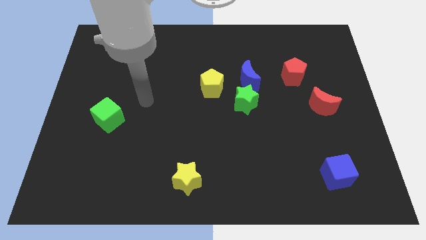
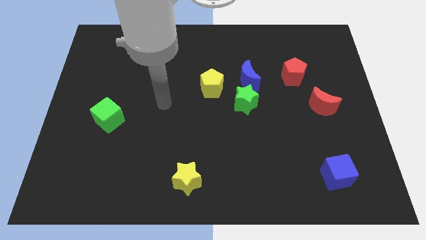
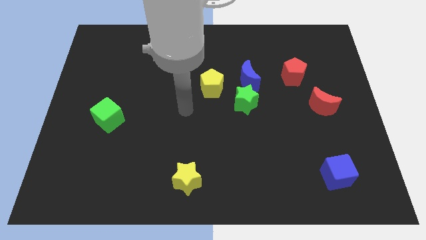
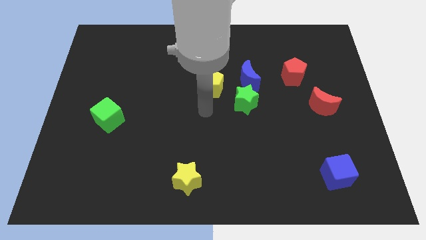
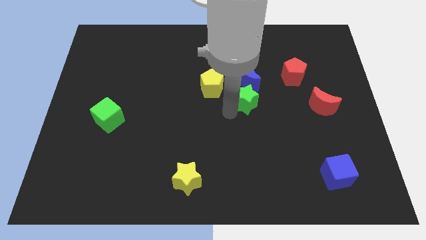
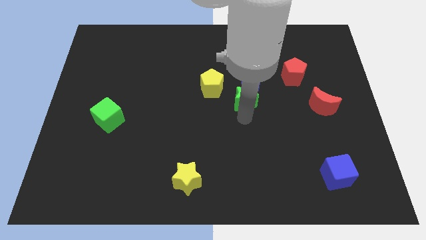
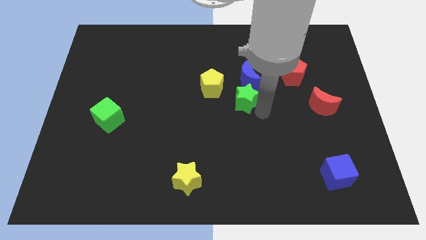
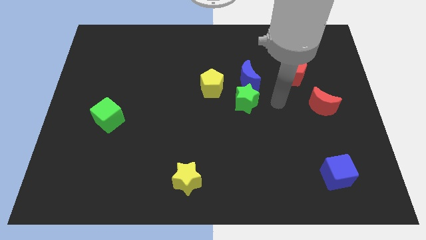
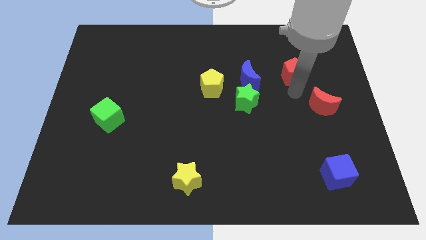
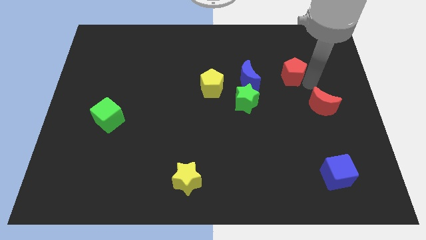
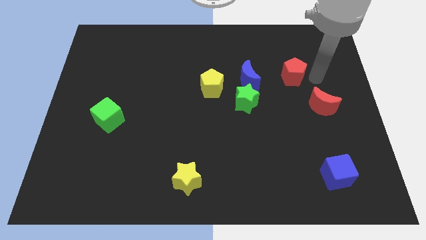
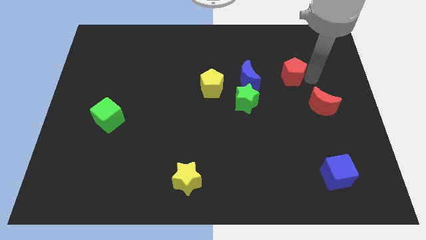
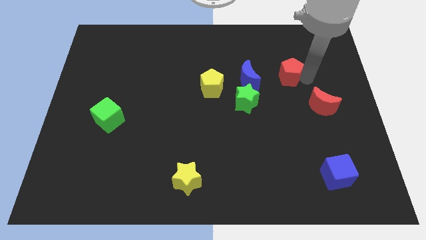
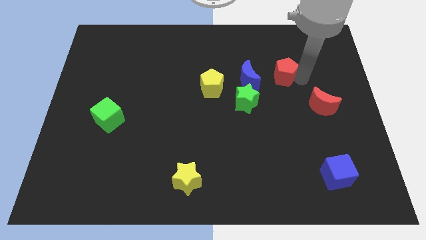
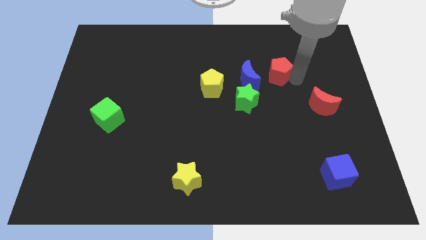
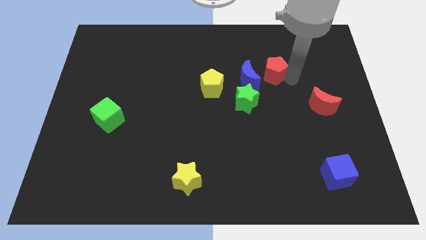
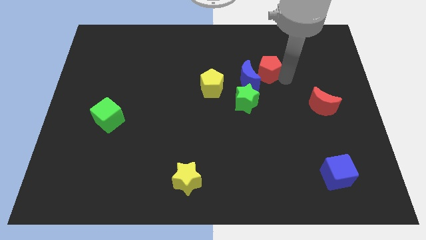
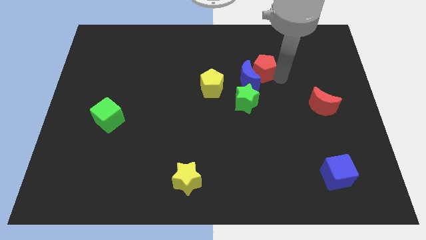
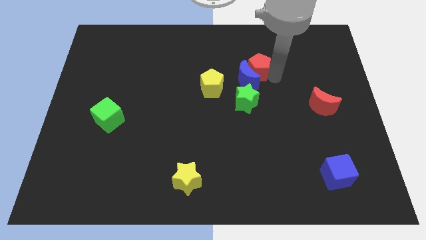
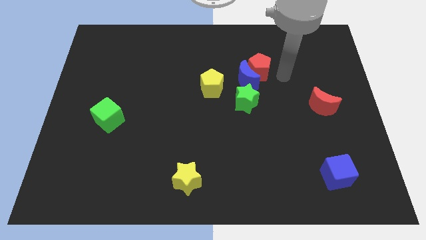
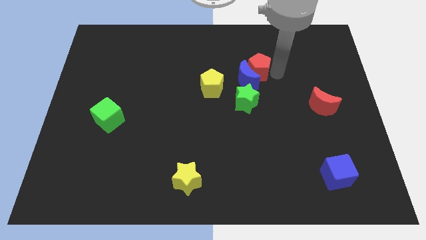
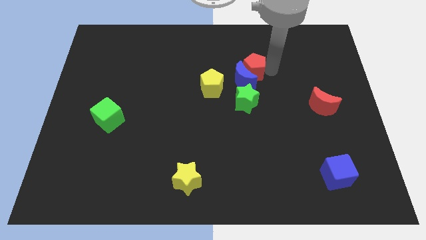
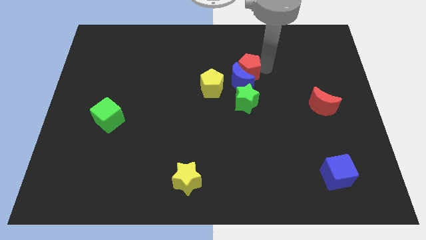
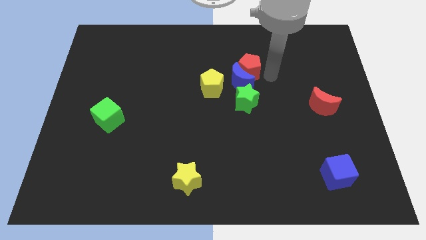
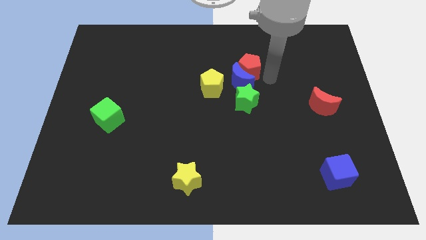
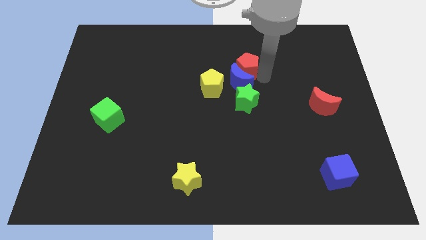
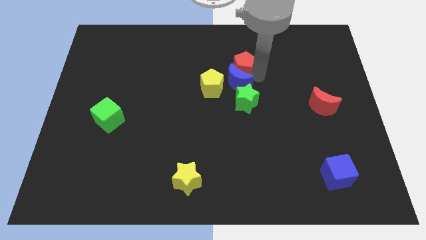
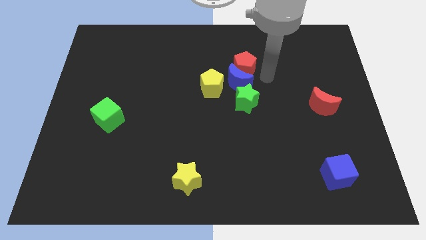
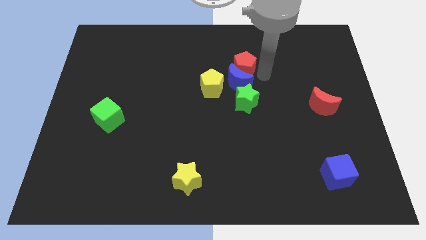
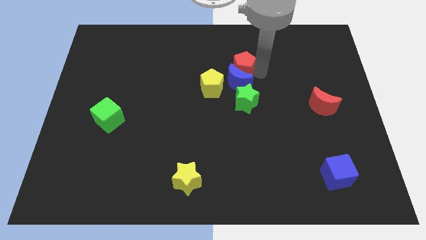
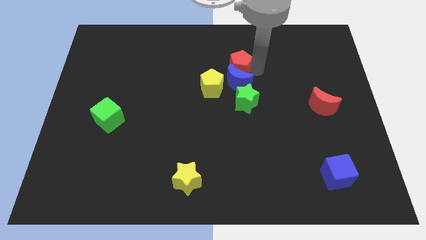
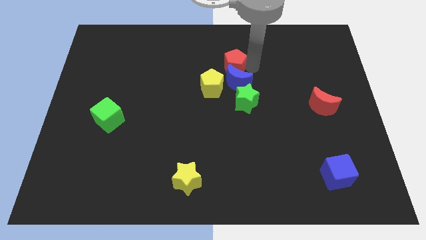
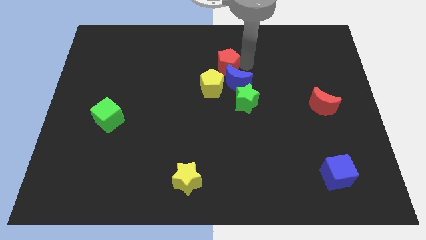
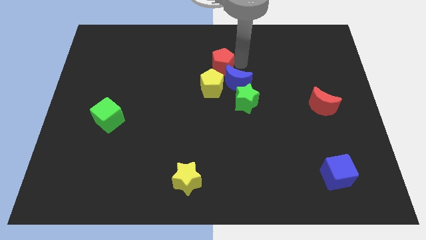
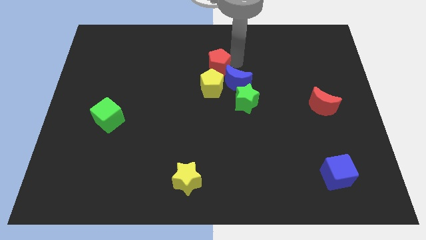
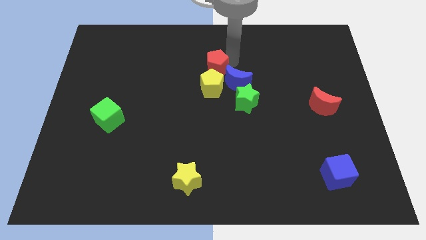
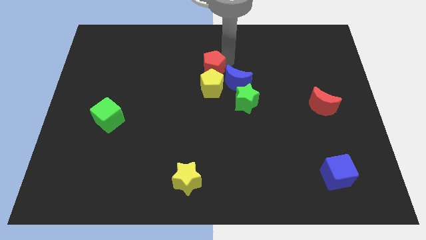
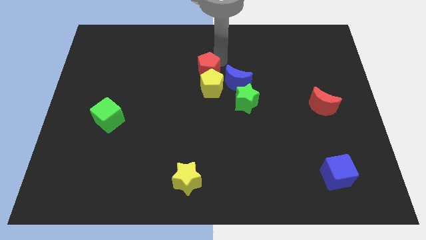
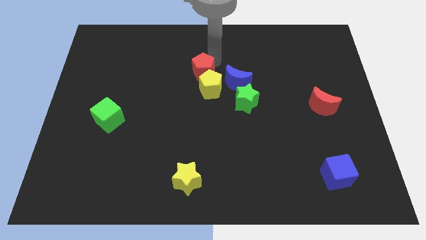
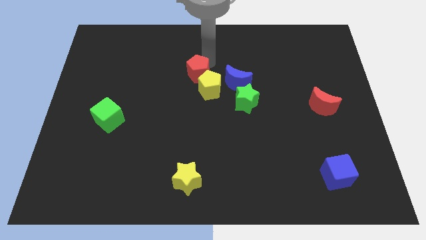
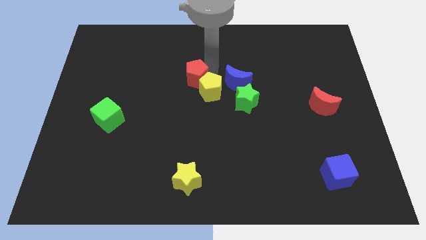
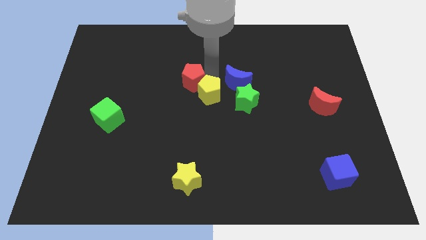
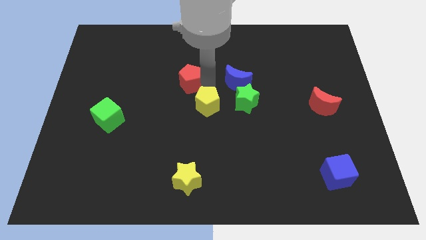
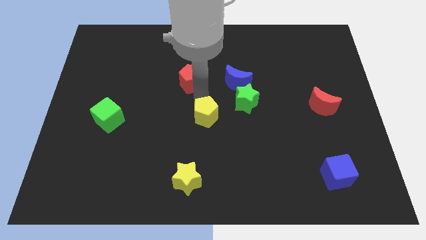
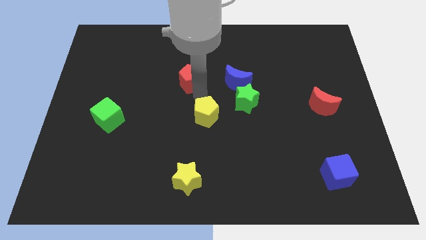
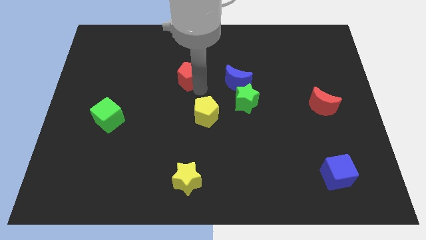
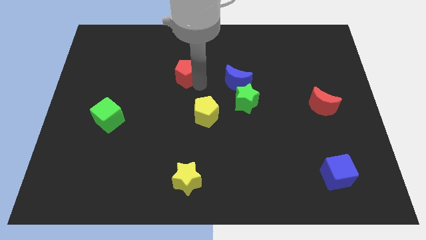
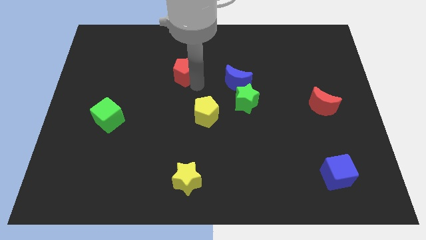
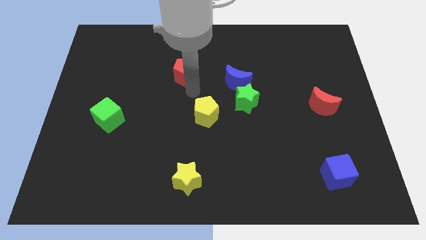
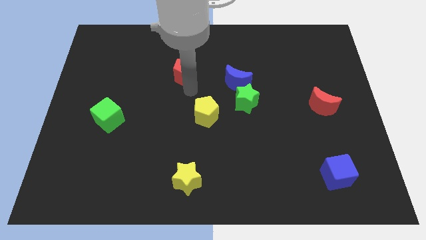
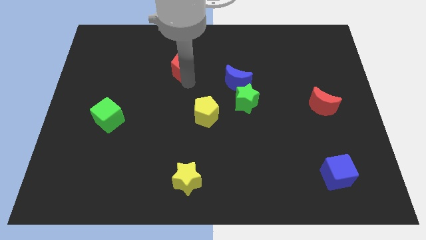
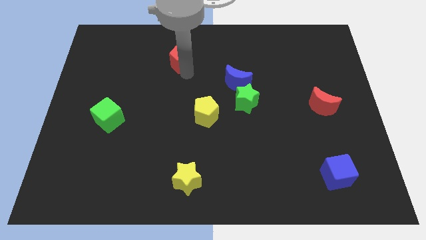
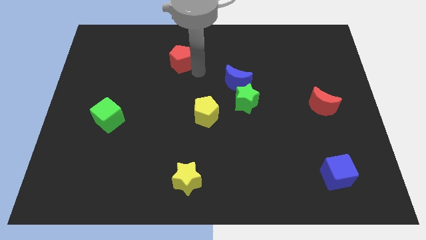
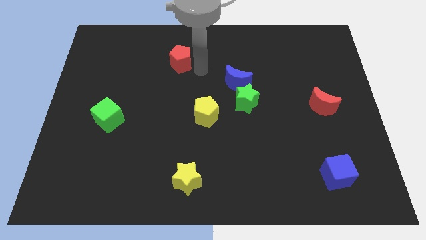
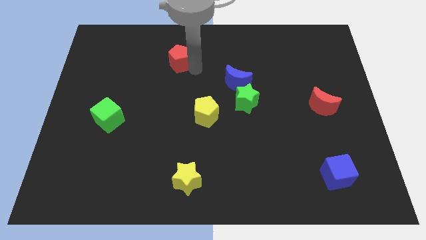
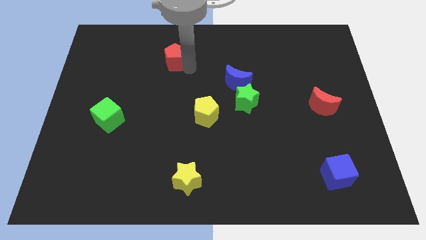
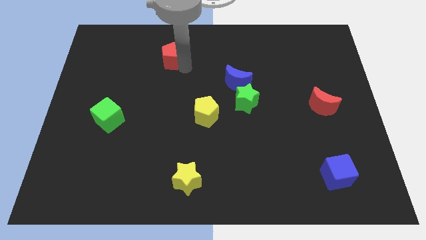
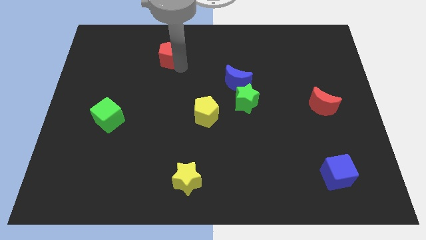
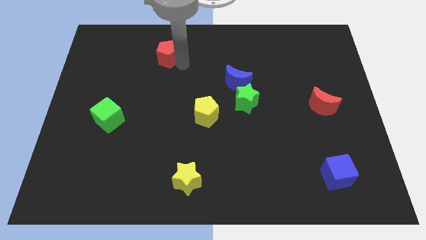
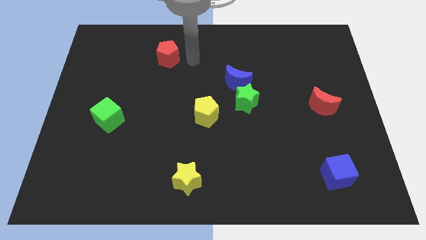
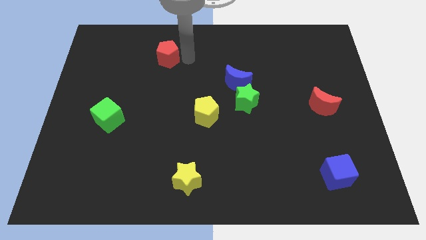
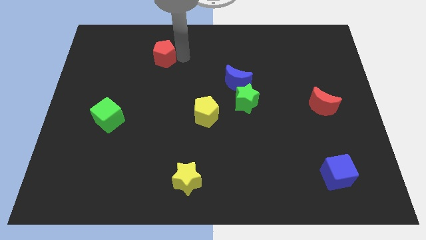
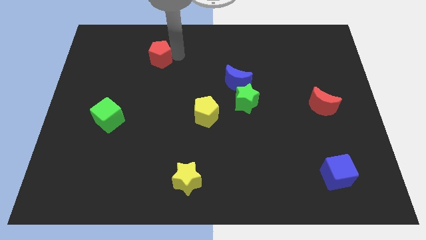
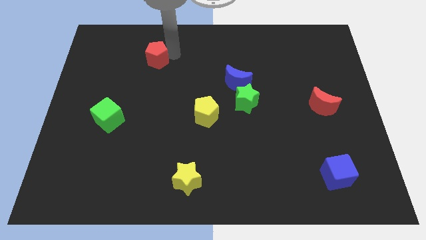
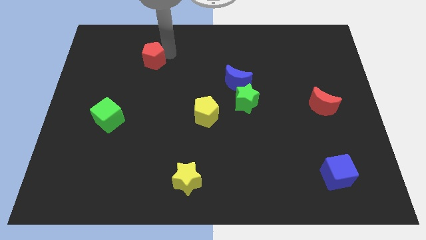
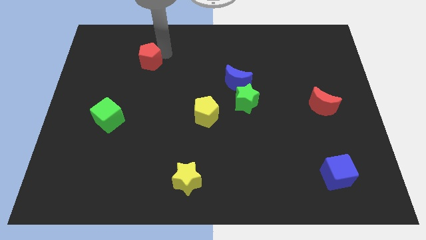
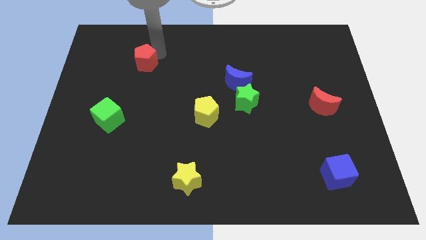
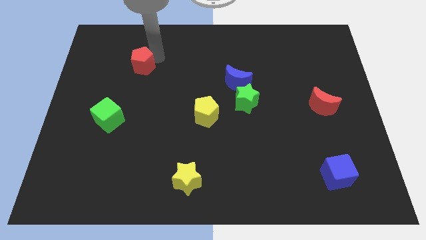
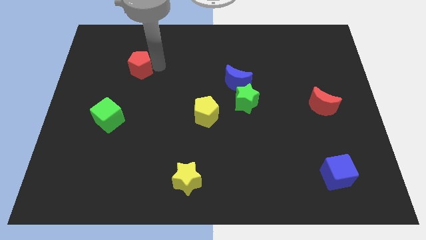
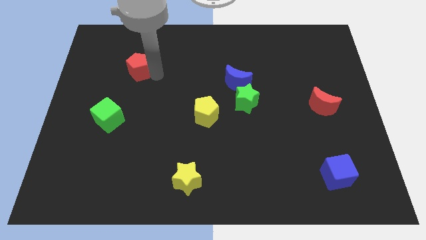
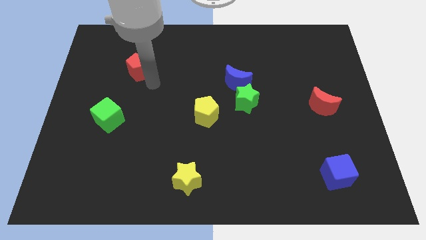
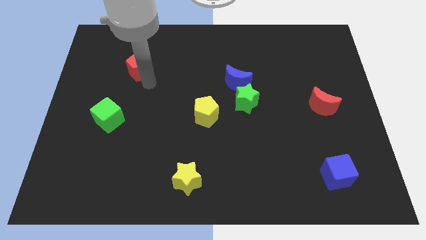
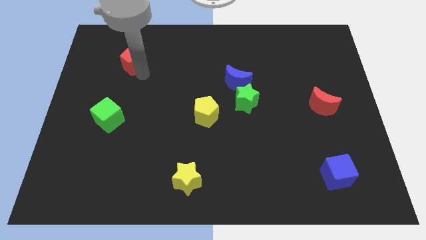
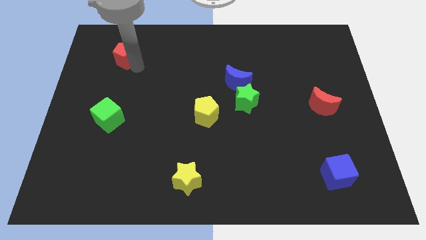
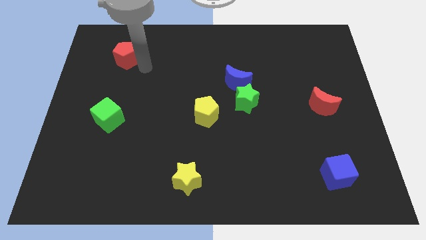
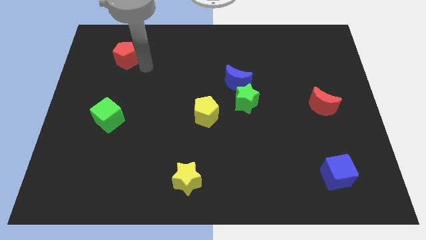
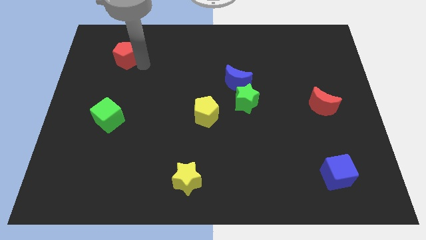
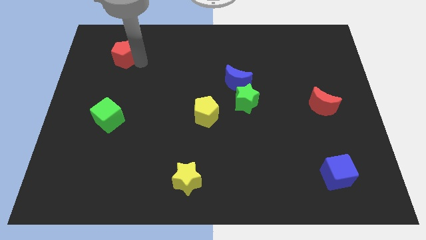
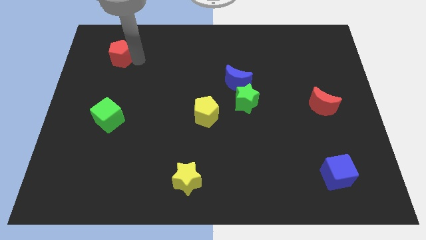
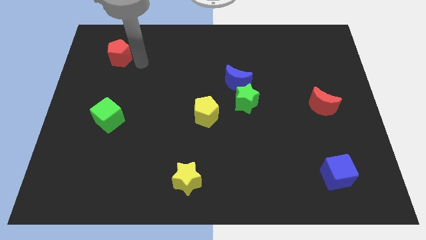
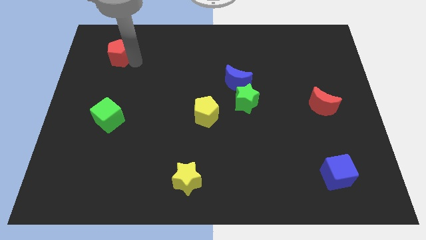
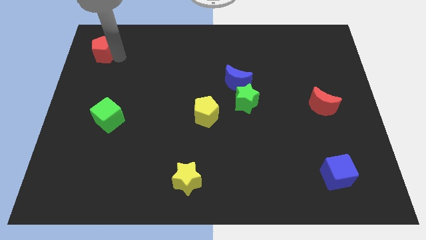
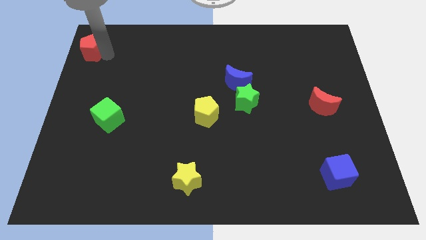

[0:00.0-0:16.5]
slide the red pentagon to the top left of the board
